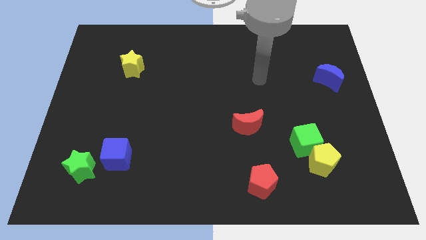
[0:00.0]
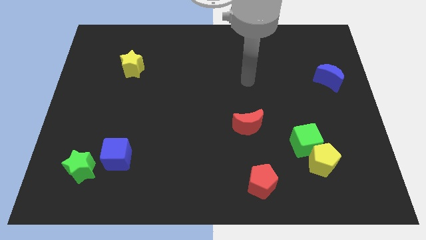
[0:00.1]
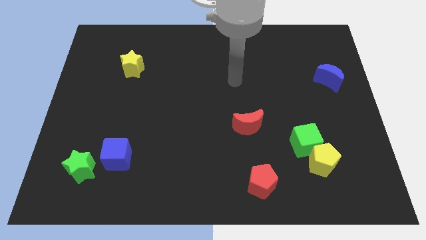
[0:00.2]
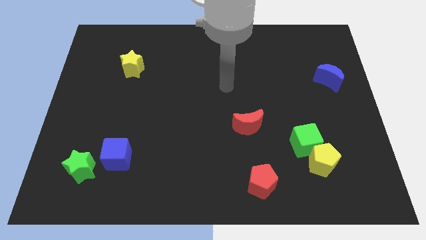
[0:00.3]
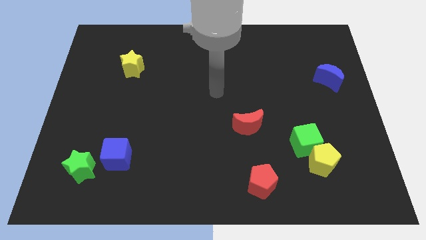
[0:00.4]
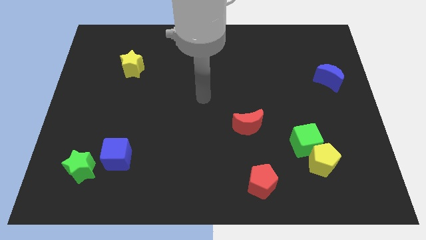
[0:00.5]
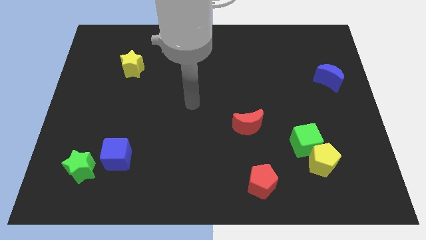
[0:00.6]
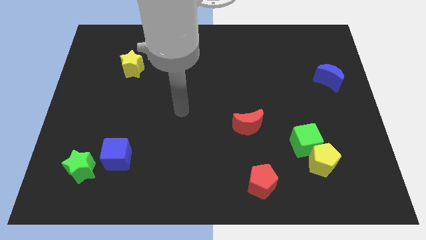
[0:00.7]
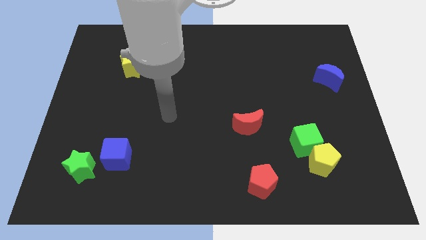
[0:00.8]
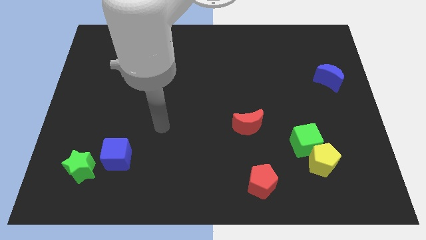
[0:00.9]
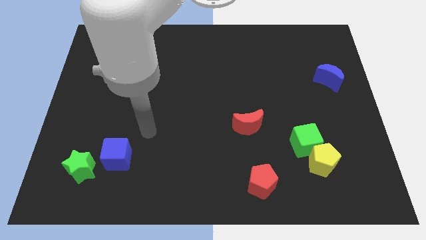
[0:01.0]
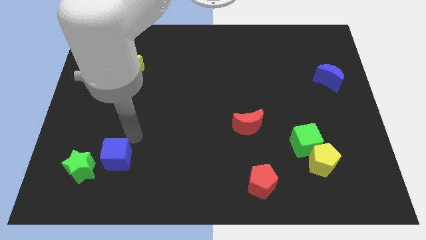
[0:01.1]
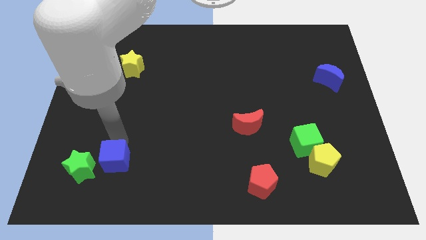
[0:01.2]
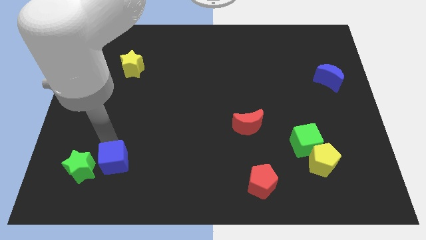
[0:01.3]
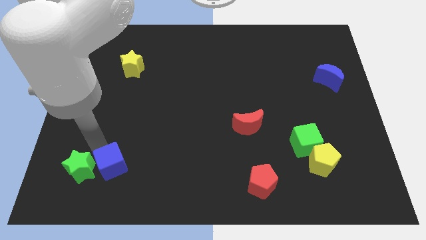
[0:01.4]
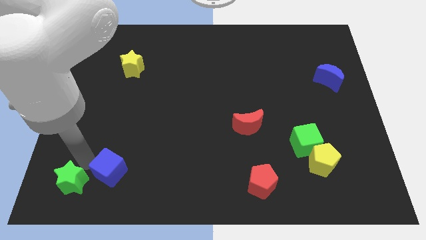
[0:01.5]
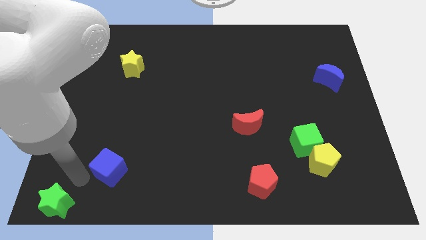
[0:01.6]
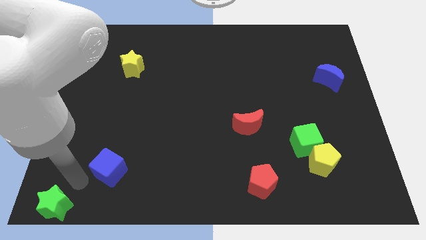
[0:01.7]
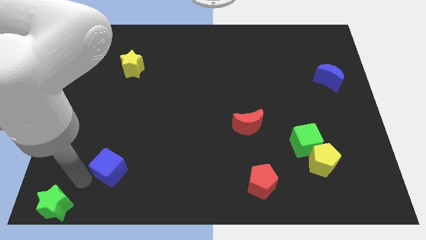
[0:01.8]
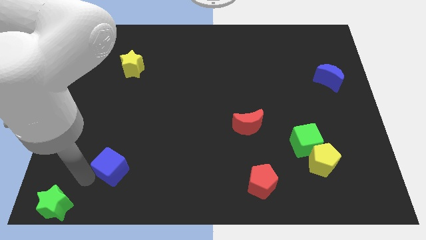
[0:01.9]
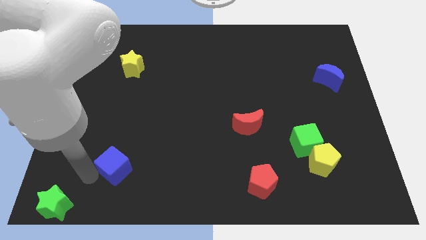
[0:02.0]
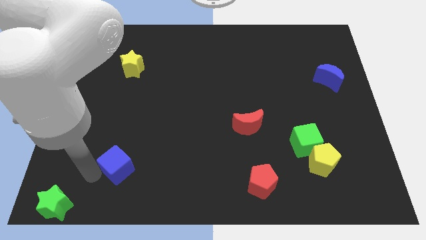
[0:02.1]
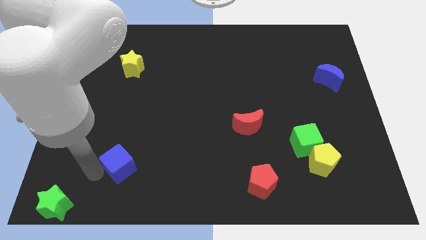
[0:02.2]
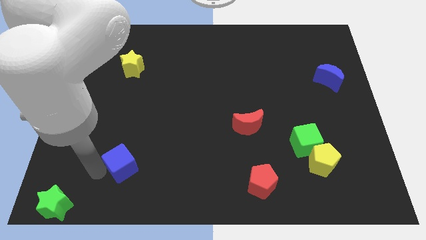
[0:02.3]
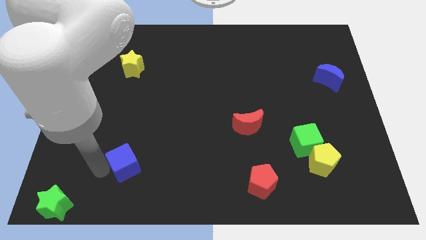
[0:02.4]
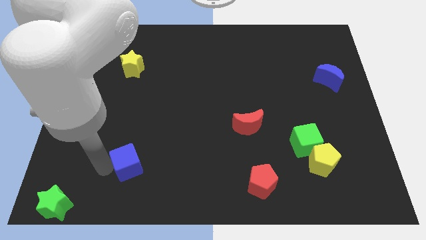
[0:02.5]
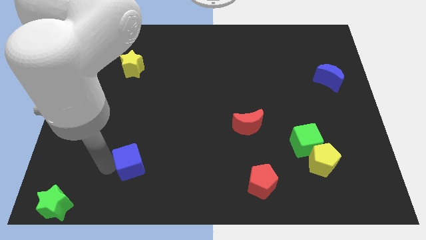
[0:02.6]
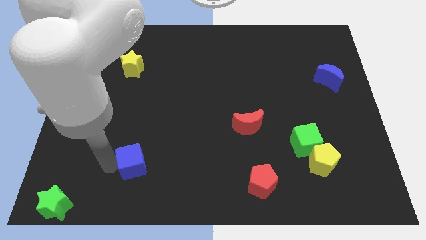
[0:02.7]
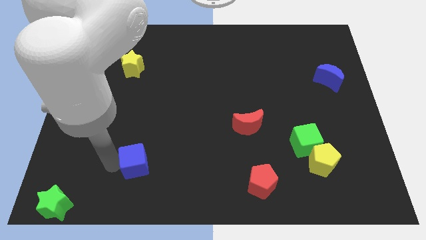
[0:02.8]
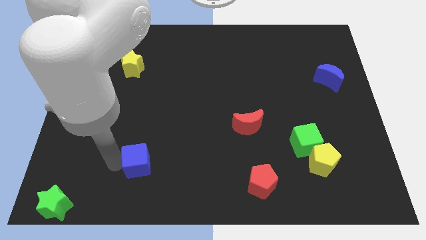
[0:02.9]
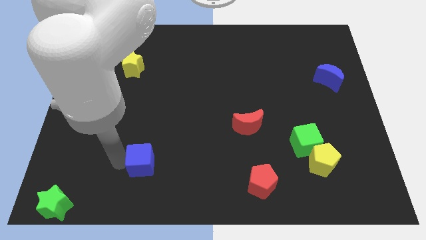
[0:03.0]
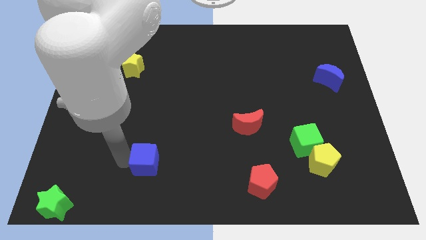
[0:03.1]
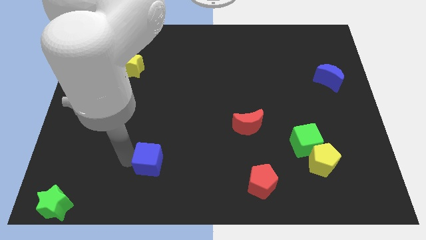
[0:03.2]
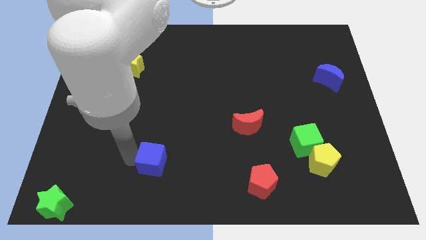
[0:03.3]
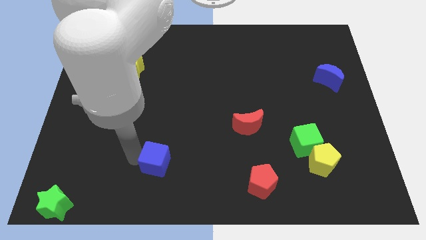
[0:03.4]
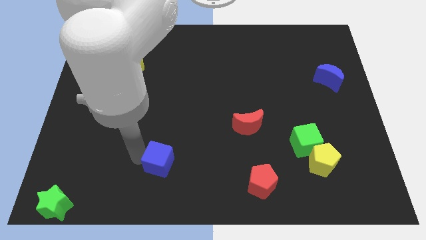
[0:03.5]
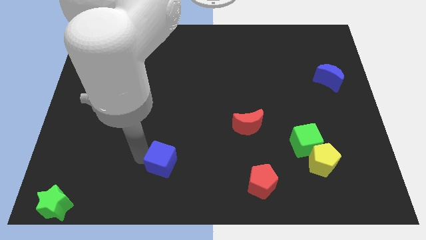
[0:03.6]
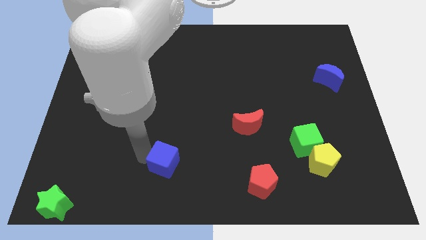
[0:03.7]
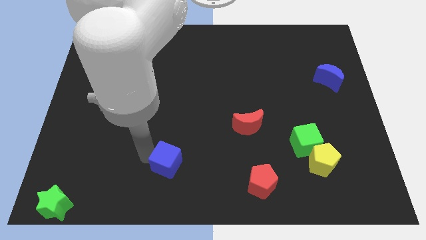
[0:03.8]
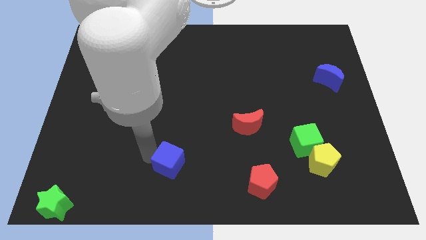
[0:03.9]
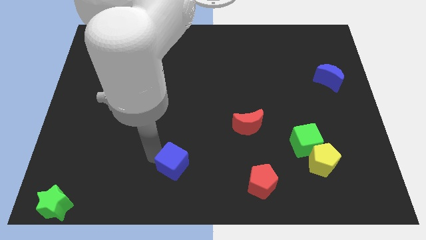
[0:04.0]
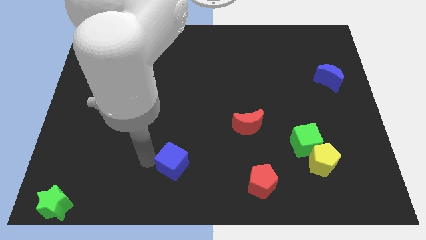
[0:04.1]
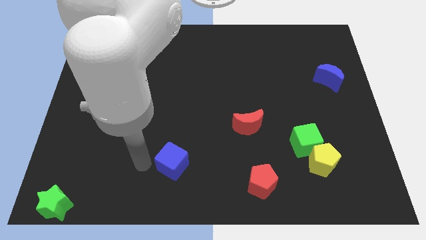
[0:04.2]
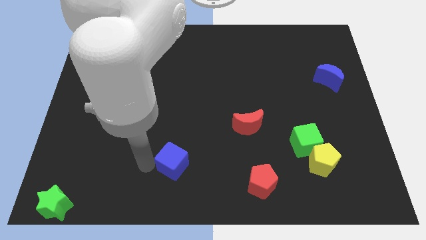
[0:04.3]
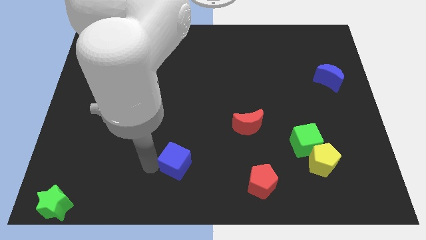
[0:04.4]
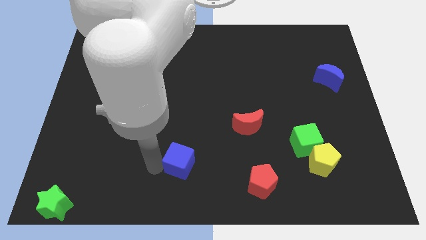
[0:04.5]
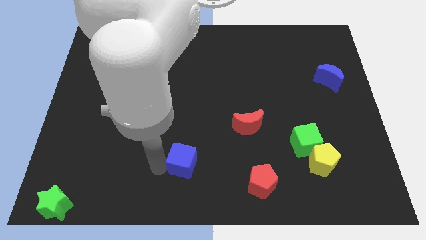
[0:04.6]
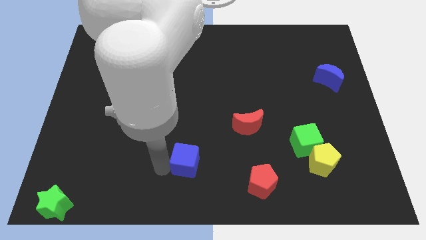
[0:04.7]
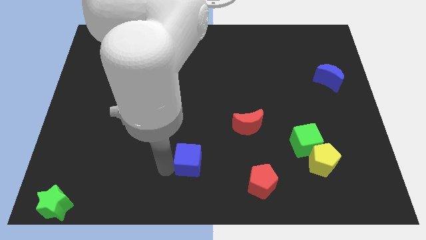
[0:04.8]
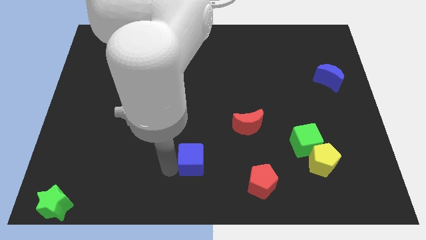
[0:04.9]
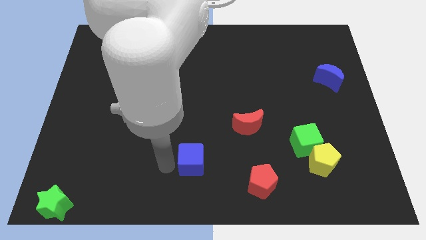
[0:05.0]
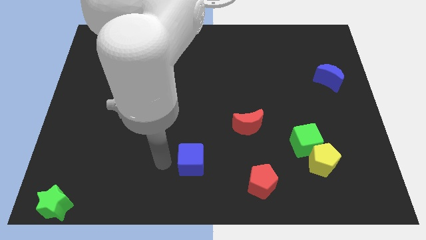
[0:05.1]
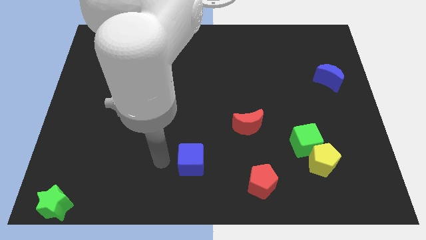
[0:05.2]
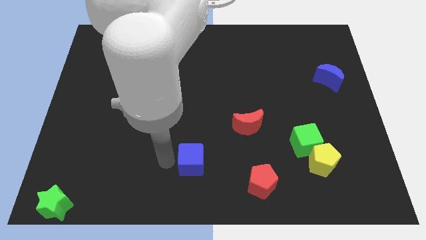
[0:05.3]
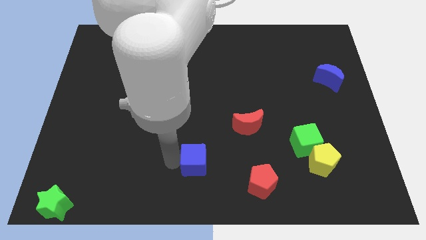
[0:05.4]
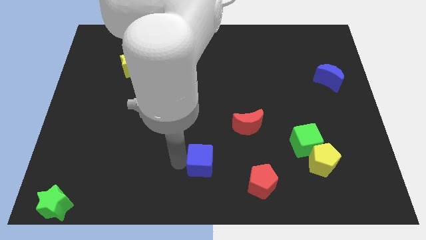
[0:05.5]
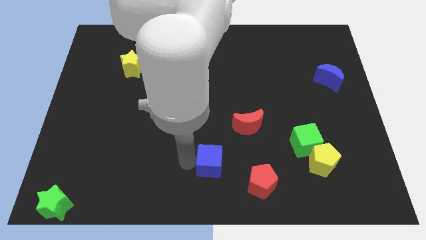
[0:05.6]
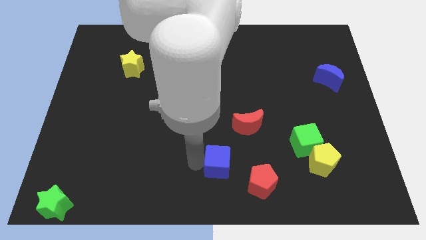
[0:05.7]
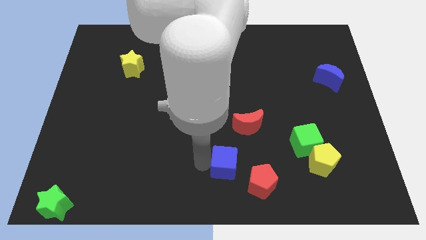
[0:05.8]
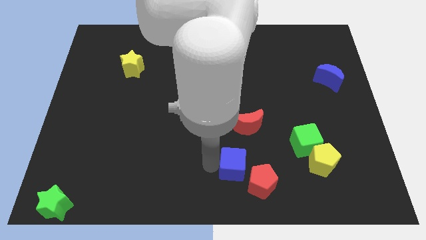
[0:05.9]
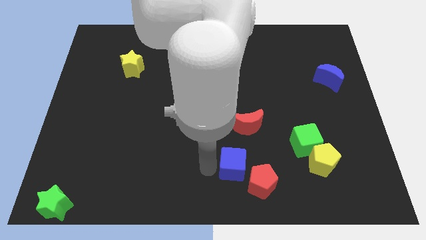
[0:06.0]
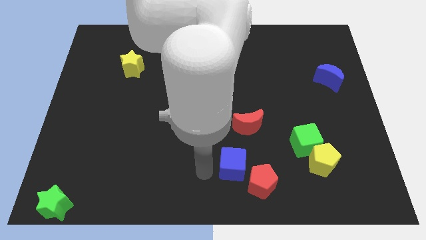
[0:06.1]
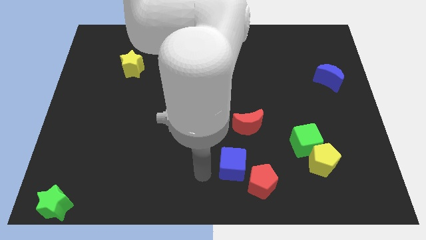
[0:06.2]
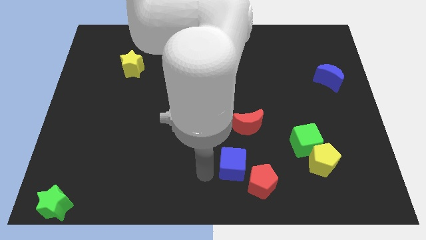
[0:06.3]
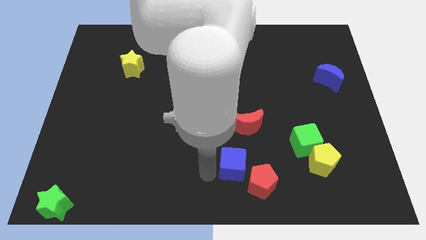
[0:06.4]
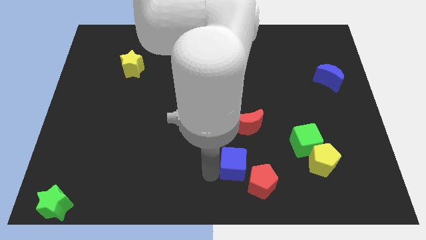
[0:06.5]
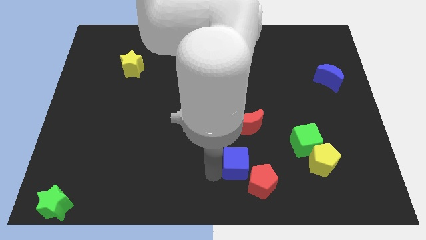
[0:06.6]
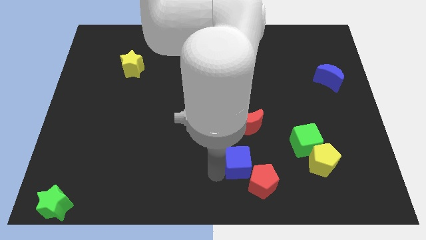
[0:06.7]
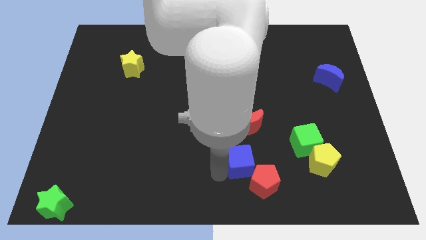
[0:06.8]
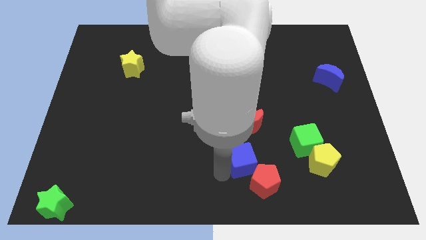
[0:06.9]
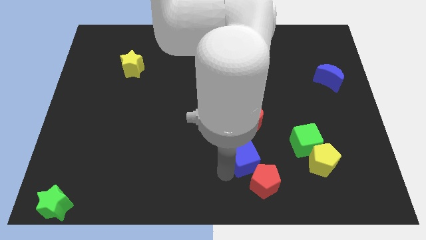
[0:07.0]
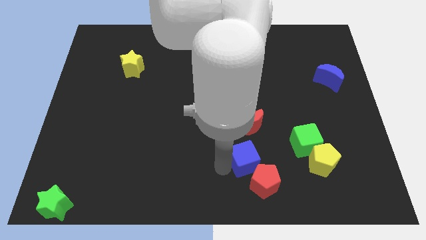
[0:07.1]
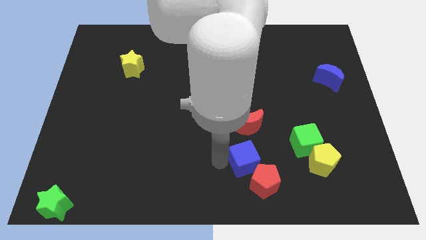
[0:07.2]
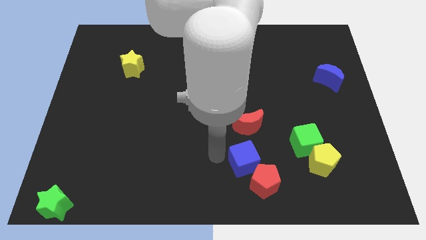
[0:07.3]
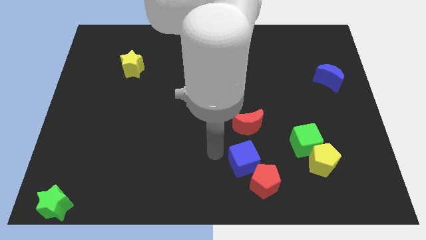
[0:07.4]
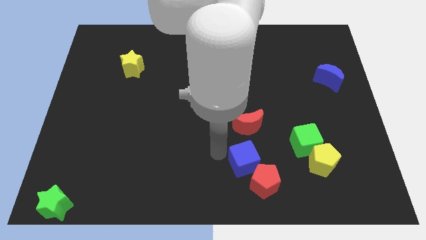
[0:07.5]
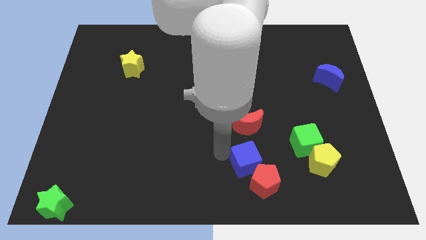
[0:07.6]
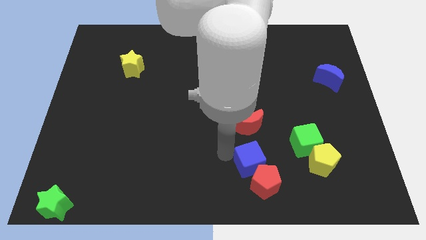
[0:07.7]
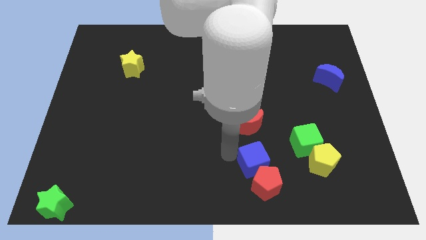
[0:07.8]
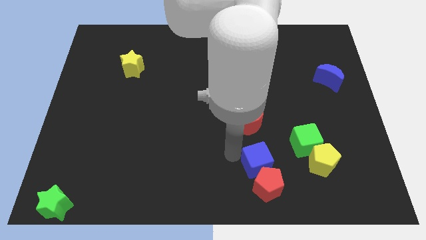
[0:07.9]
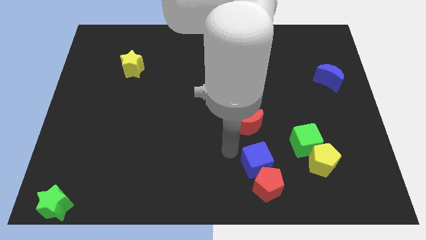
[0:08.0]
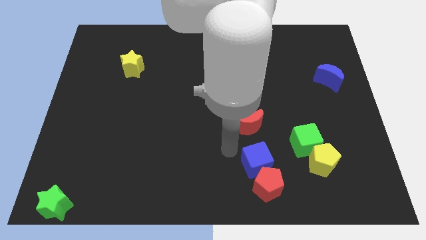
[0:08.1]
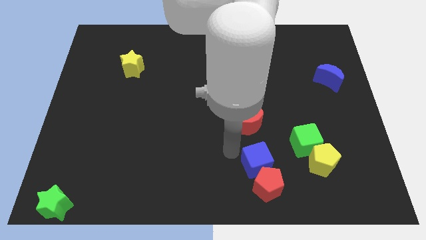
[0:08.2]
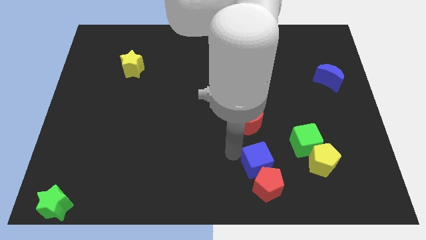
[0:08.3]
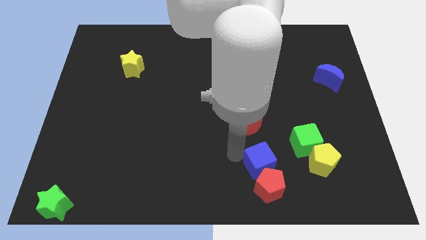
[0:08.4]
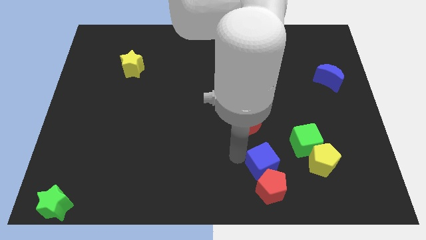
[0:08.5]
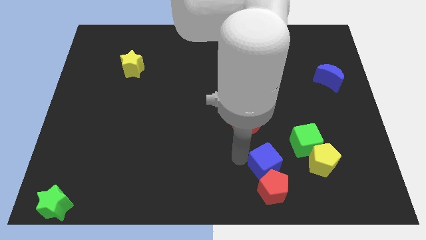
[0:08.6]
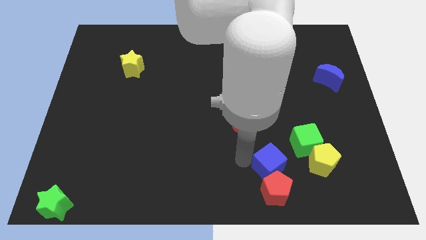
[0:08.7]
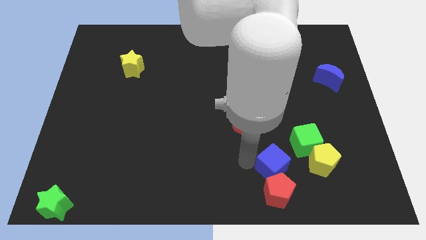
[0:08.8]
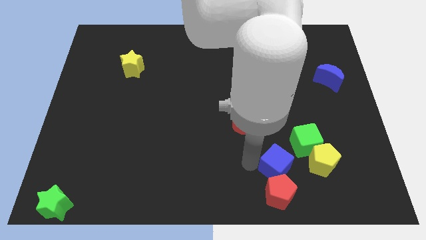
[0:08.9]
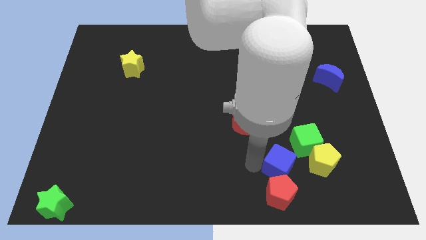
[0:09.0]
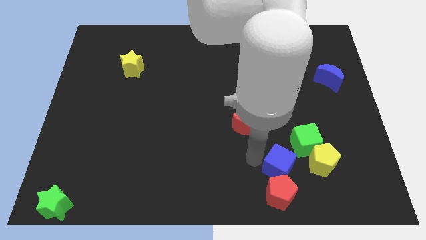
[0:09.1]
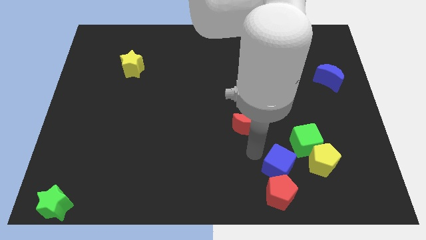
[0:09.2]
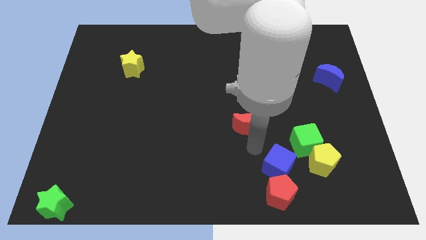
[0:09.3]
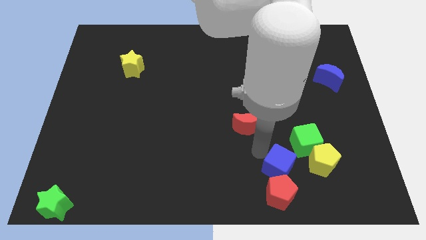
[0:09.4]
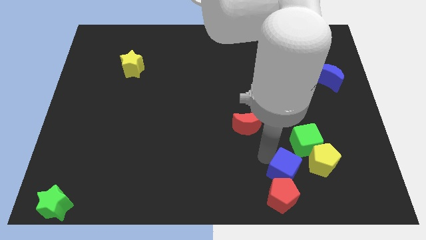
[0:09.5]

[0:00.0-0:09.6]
move the blue cube to the bottom left of the yellow pentagon
